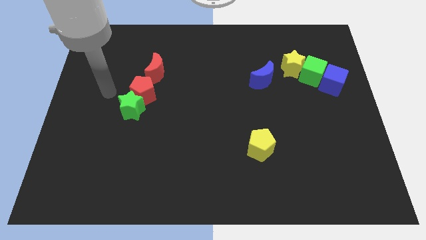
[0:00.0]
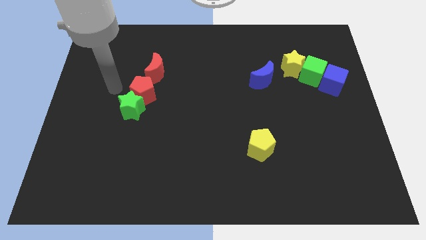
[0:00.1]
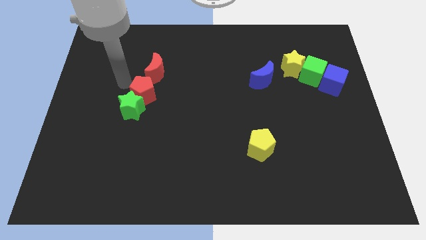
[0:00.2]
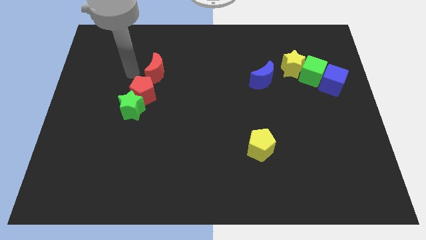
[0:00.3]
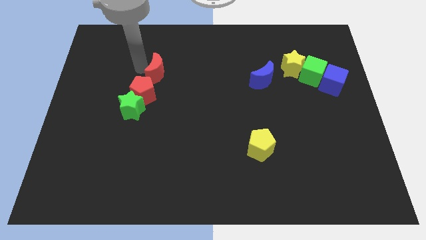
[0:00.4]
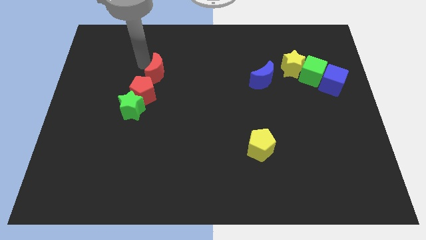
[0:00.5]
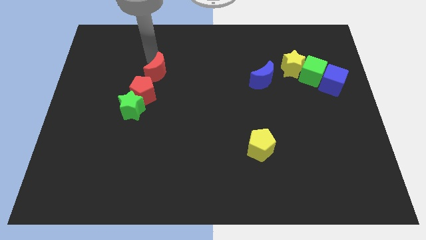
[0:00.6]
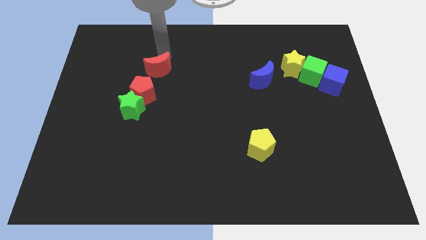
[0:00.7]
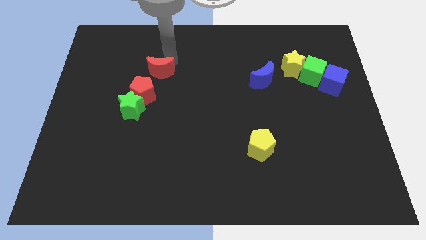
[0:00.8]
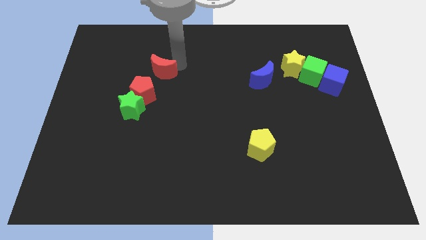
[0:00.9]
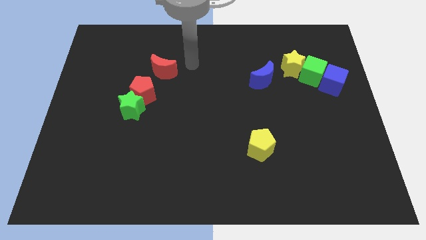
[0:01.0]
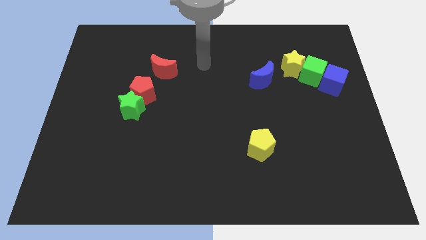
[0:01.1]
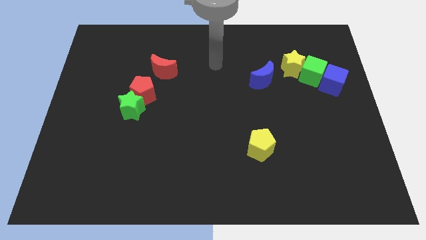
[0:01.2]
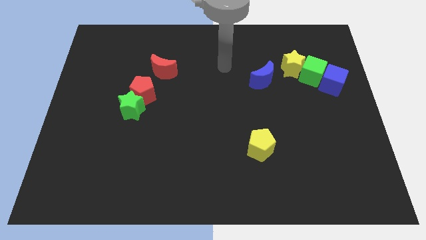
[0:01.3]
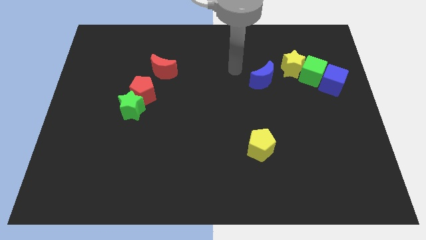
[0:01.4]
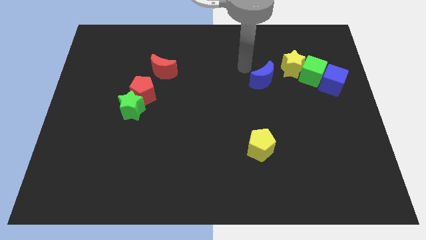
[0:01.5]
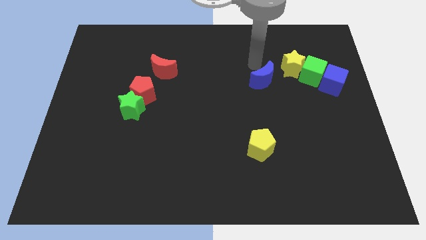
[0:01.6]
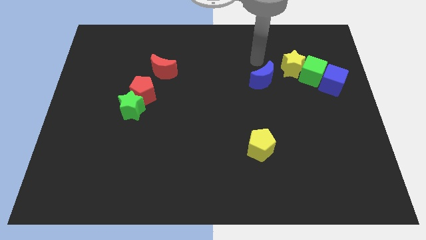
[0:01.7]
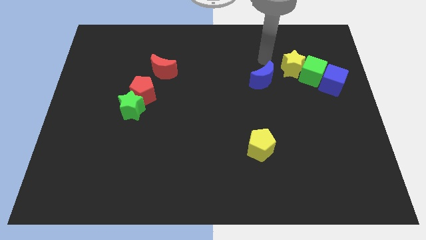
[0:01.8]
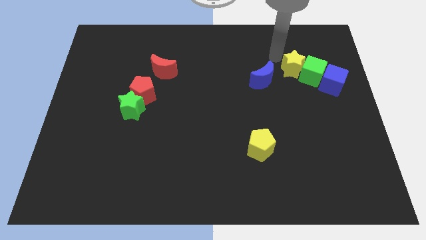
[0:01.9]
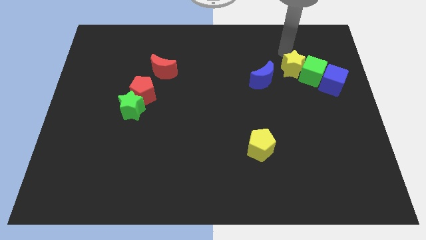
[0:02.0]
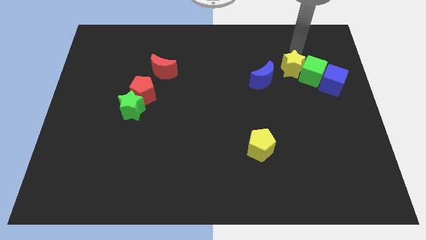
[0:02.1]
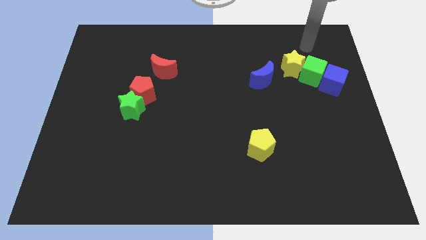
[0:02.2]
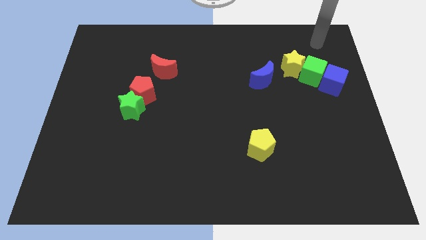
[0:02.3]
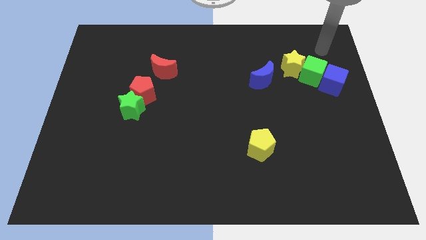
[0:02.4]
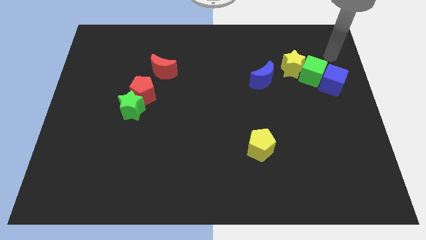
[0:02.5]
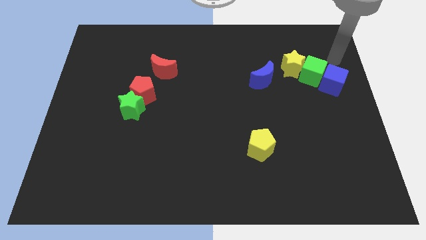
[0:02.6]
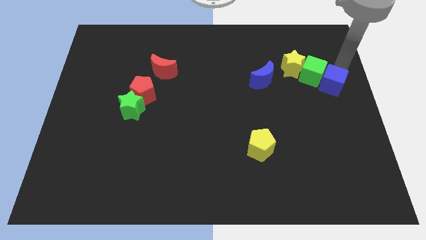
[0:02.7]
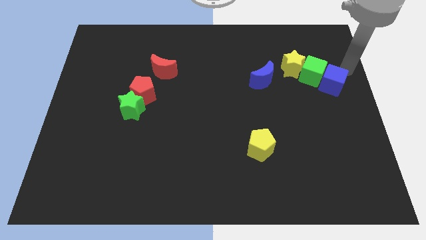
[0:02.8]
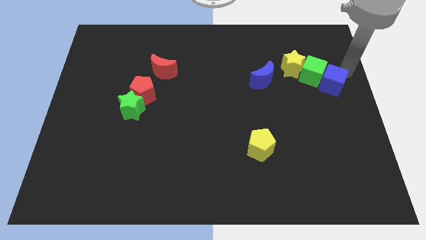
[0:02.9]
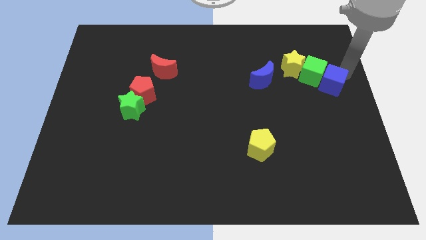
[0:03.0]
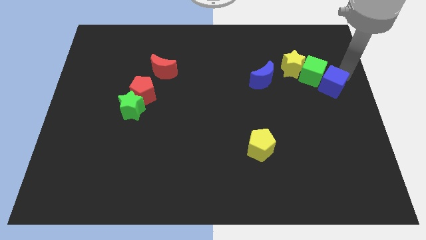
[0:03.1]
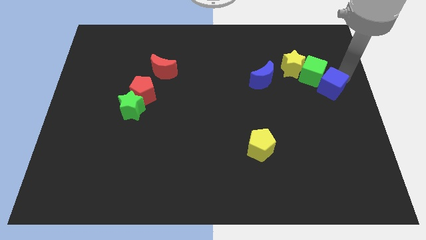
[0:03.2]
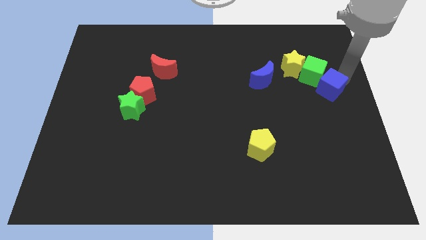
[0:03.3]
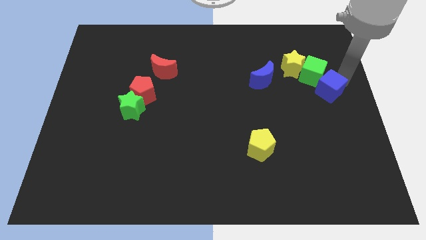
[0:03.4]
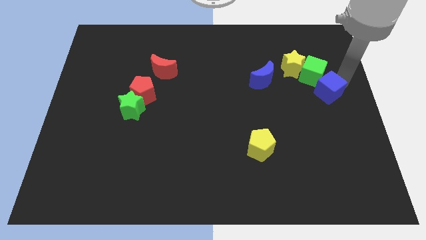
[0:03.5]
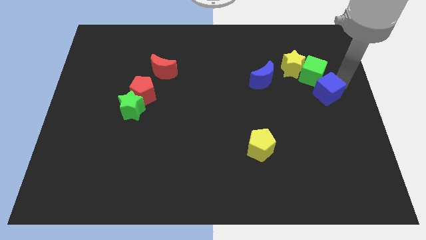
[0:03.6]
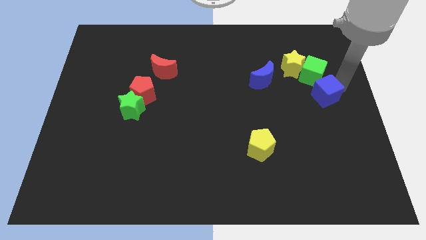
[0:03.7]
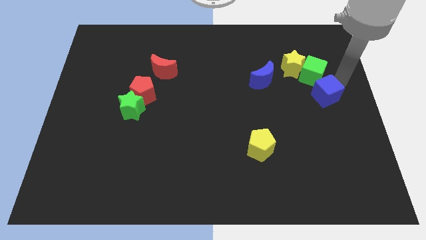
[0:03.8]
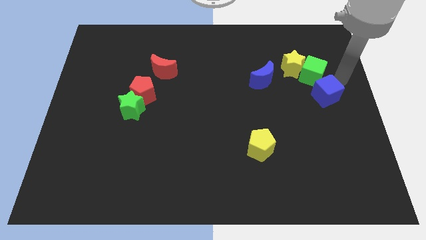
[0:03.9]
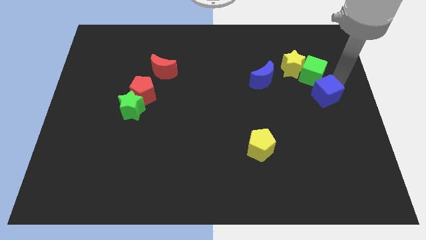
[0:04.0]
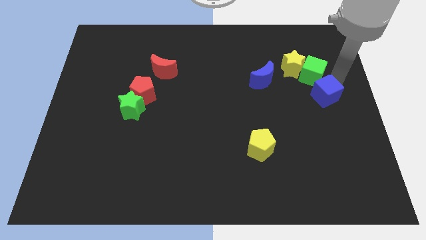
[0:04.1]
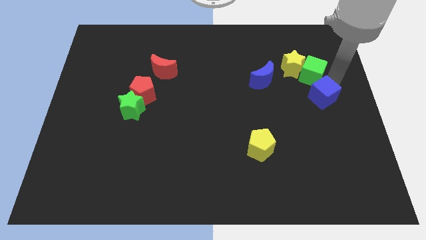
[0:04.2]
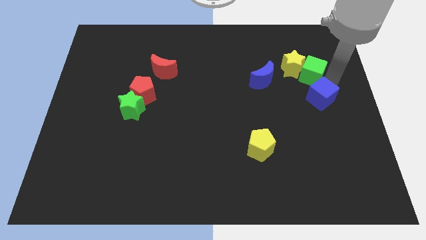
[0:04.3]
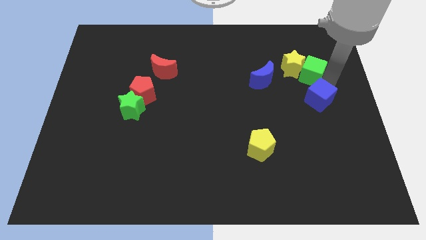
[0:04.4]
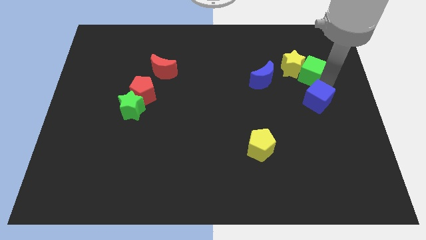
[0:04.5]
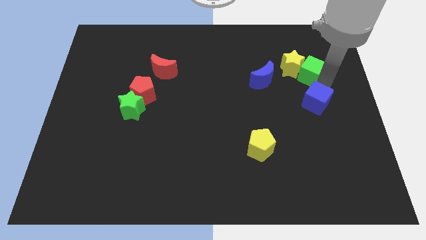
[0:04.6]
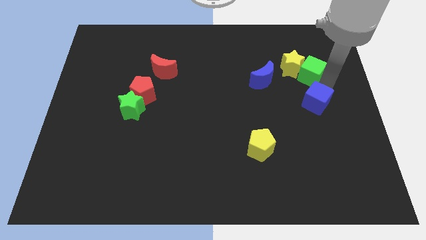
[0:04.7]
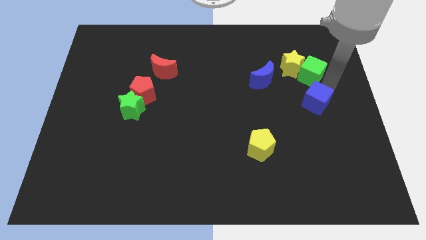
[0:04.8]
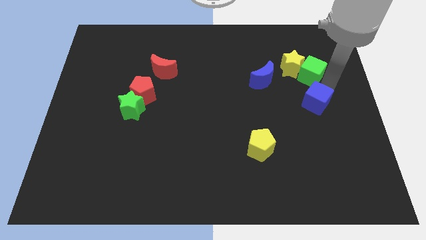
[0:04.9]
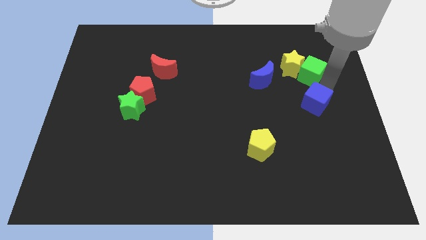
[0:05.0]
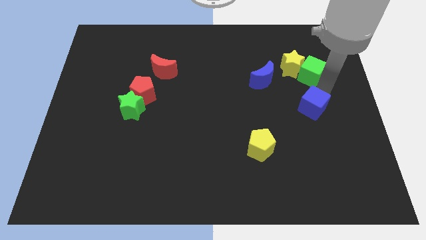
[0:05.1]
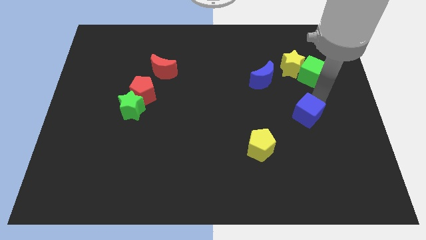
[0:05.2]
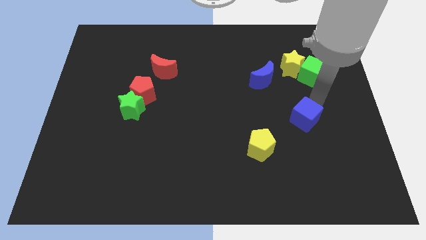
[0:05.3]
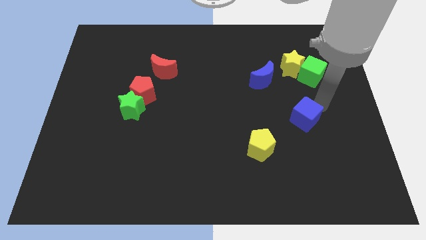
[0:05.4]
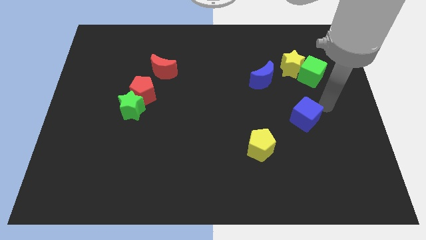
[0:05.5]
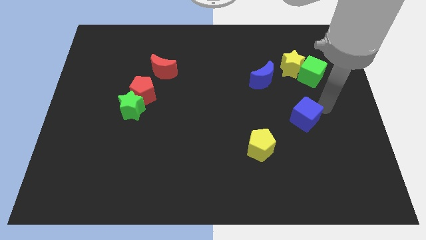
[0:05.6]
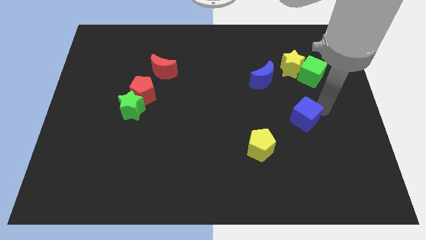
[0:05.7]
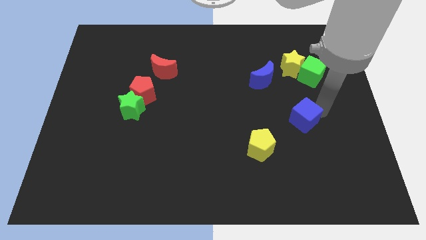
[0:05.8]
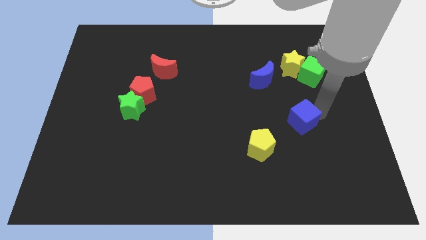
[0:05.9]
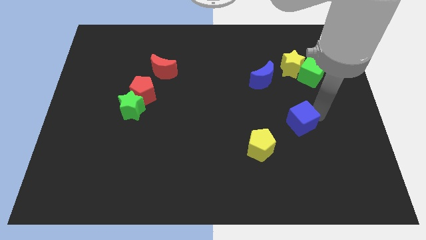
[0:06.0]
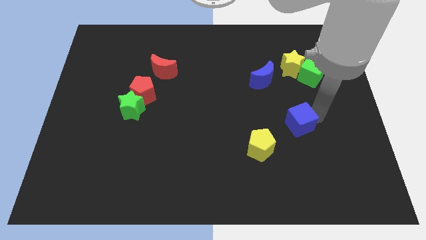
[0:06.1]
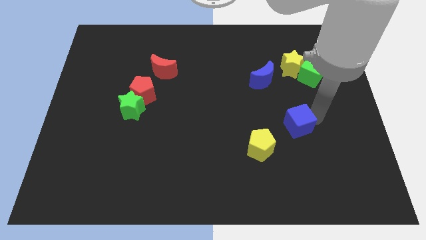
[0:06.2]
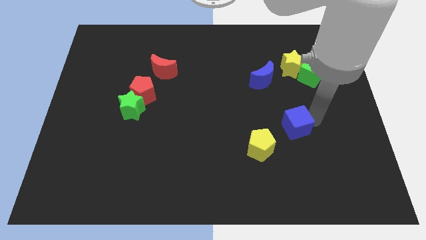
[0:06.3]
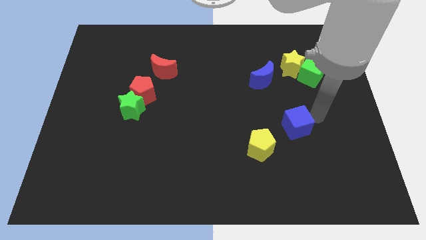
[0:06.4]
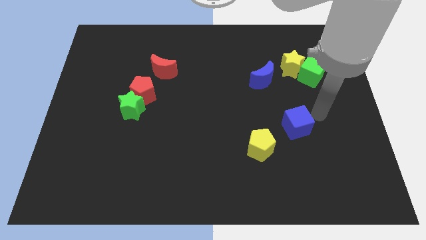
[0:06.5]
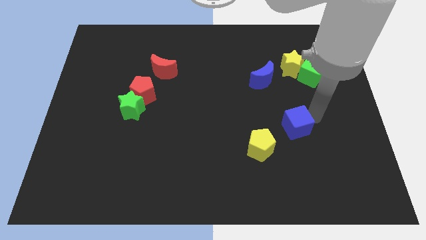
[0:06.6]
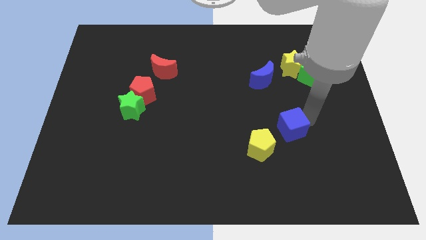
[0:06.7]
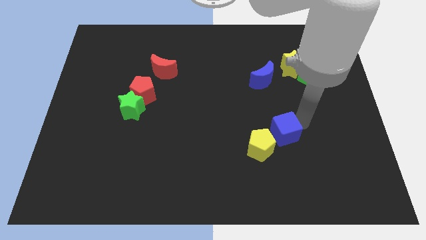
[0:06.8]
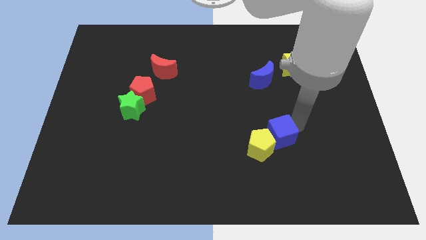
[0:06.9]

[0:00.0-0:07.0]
slide the blue cube next to the yellow pentagon
